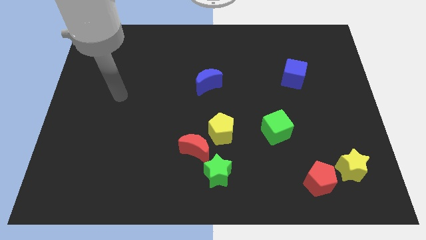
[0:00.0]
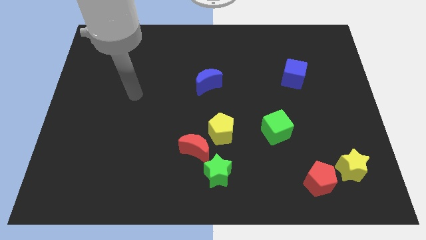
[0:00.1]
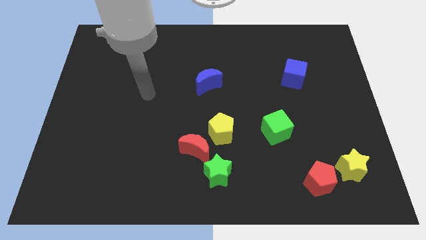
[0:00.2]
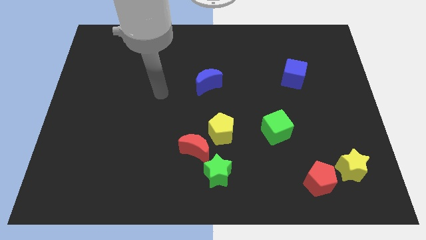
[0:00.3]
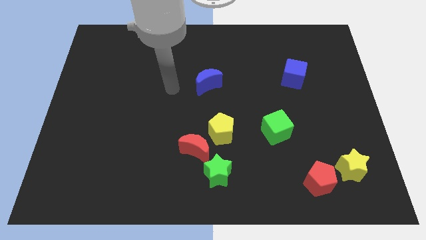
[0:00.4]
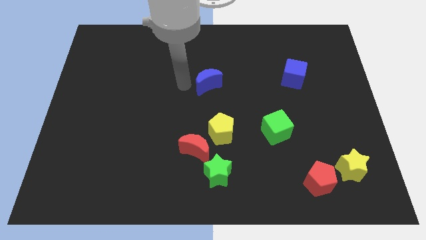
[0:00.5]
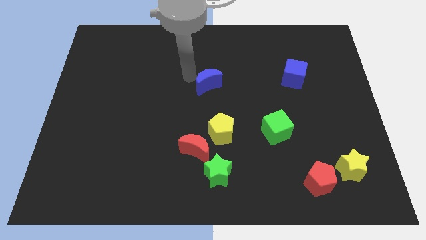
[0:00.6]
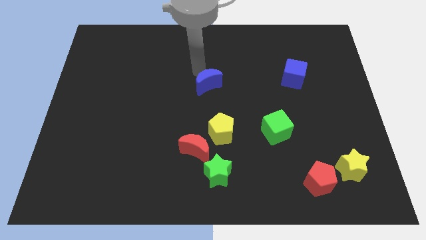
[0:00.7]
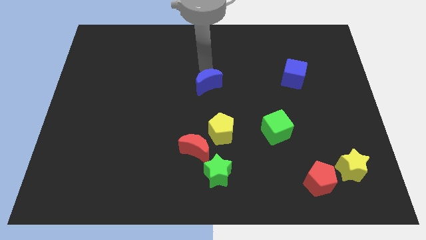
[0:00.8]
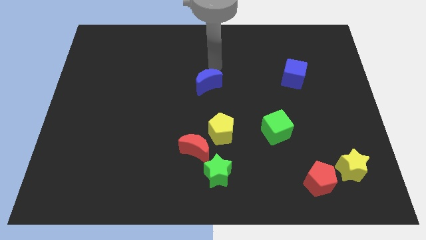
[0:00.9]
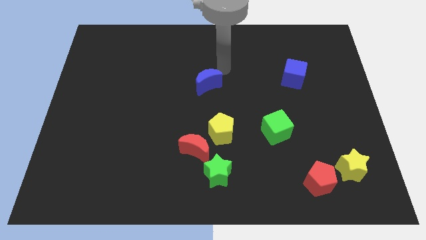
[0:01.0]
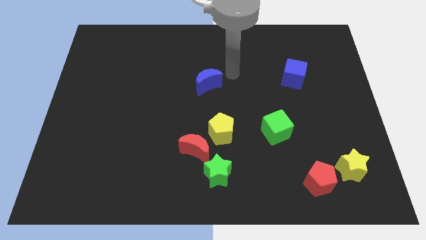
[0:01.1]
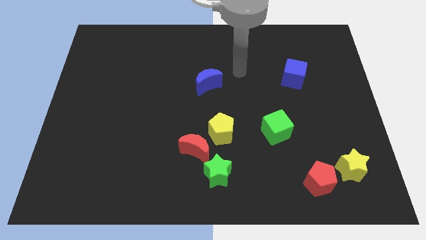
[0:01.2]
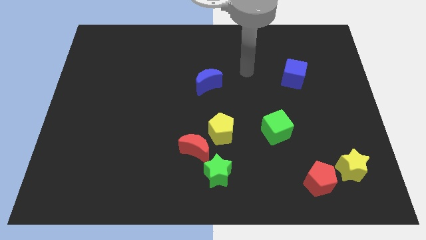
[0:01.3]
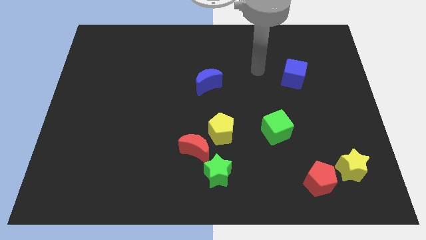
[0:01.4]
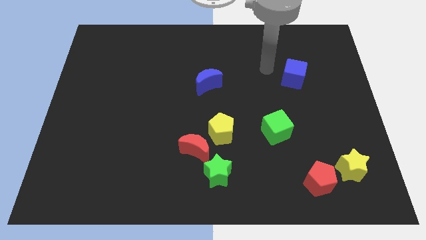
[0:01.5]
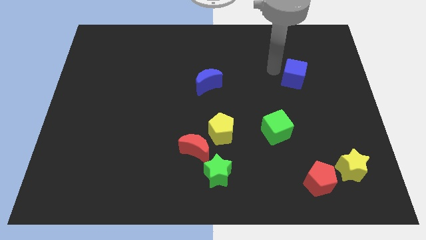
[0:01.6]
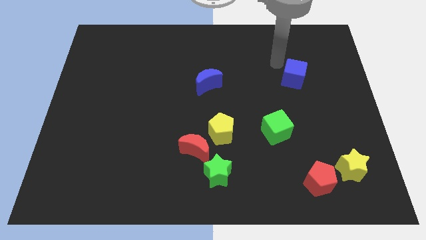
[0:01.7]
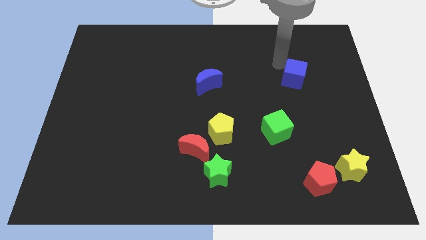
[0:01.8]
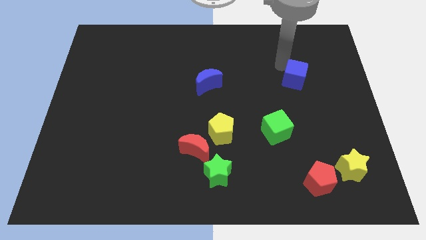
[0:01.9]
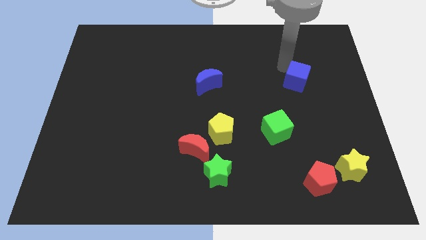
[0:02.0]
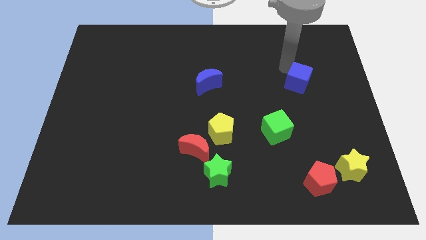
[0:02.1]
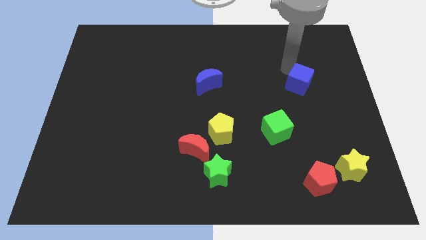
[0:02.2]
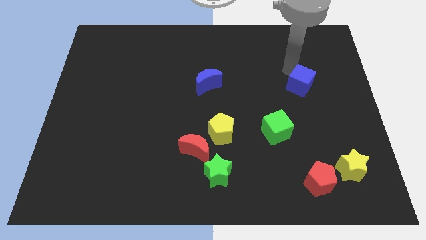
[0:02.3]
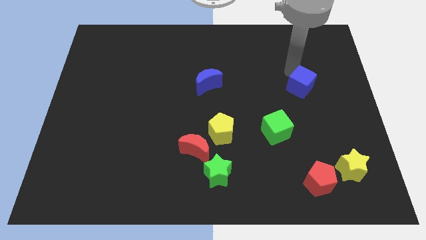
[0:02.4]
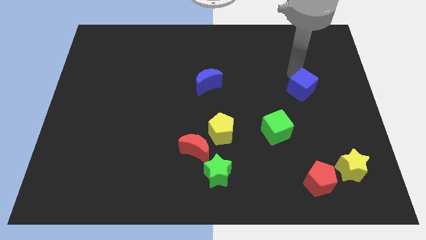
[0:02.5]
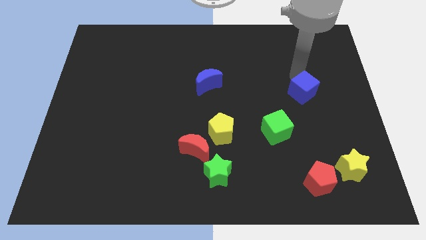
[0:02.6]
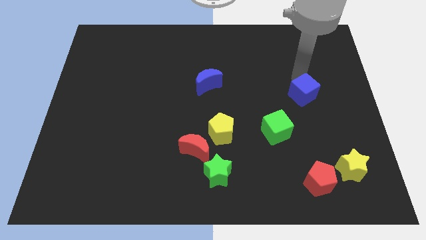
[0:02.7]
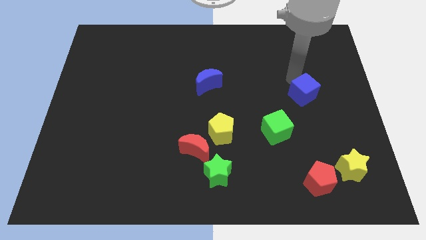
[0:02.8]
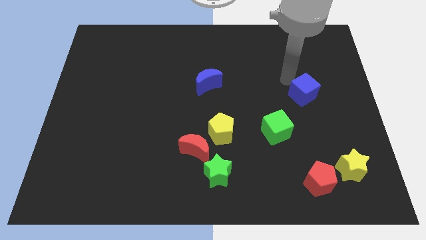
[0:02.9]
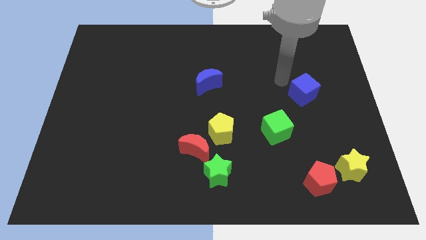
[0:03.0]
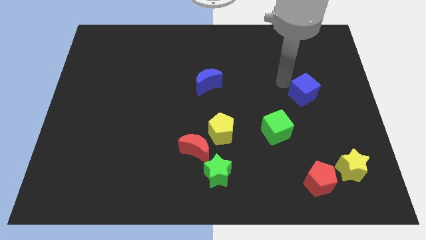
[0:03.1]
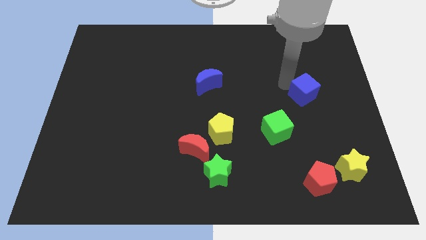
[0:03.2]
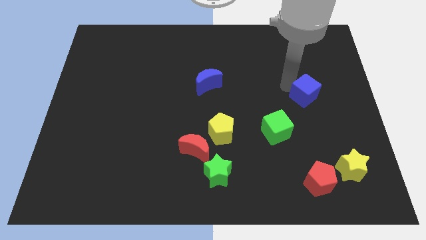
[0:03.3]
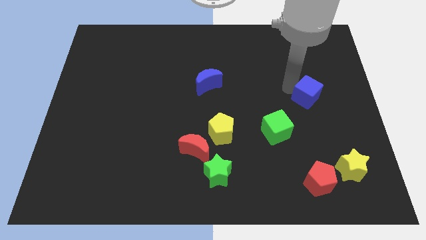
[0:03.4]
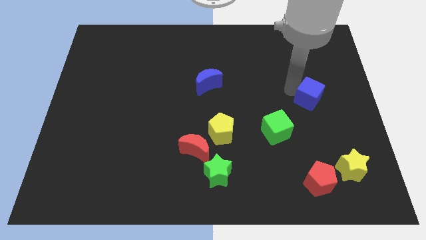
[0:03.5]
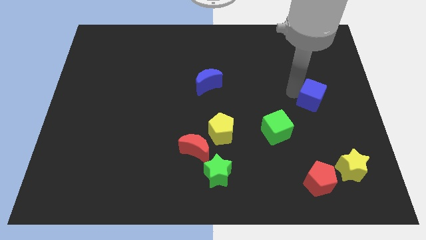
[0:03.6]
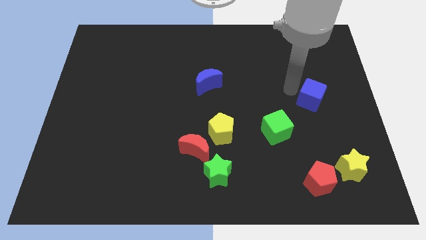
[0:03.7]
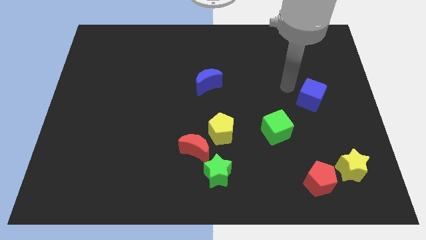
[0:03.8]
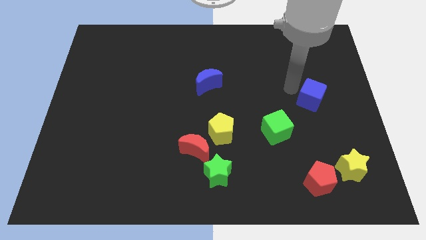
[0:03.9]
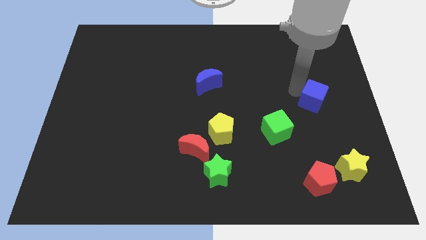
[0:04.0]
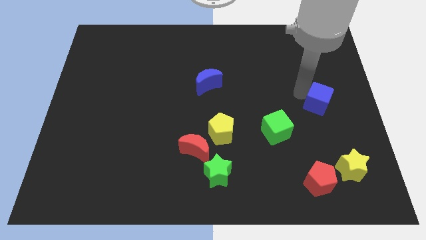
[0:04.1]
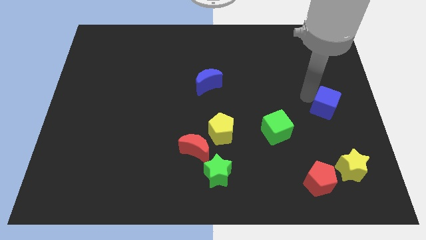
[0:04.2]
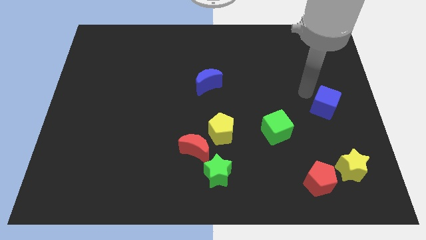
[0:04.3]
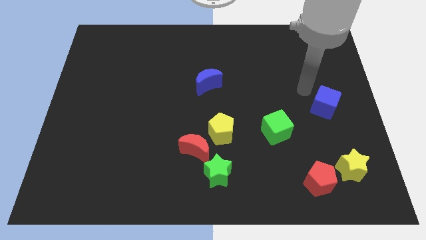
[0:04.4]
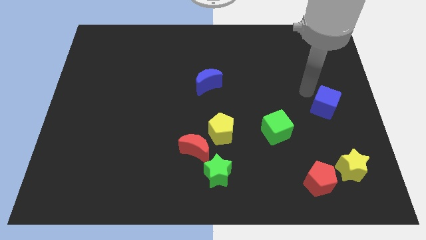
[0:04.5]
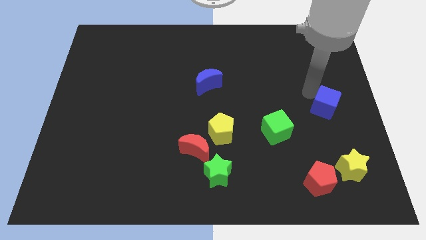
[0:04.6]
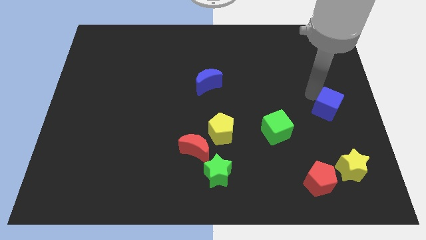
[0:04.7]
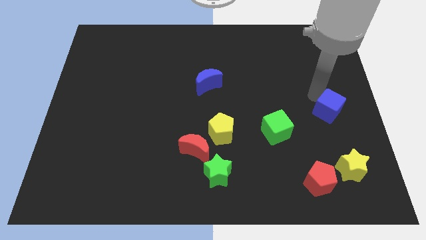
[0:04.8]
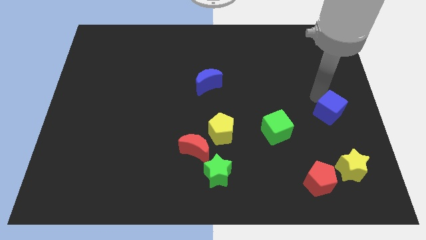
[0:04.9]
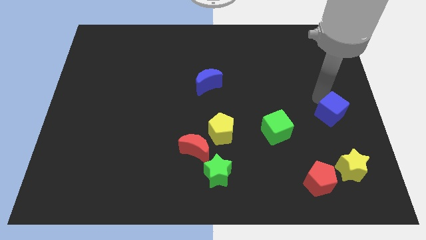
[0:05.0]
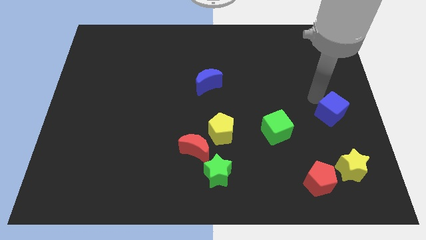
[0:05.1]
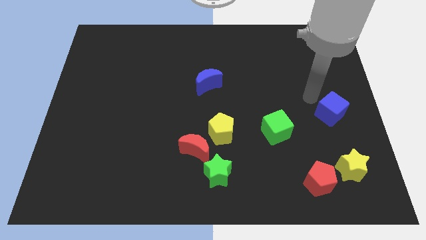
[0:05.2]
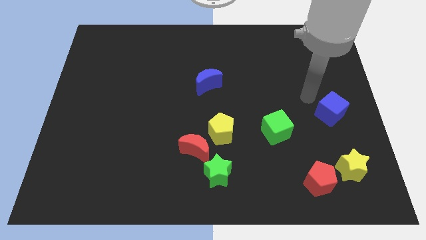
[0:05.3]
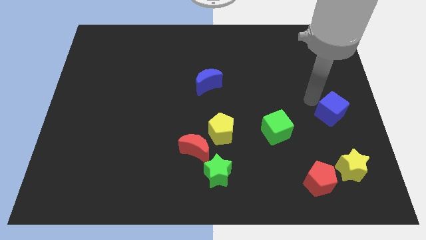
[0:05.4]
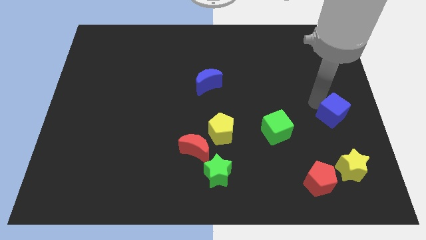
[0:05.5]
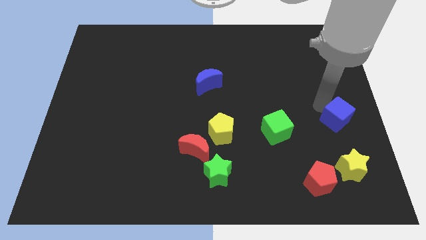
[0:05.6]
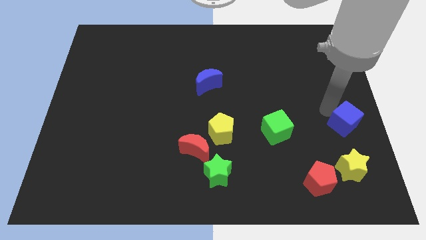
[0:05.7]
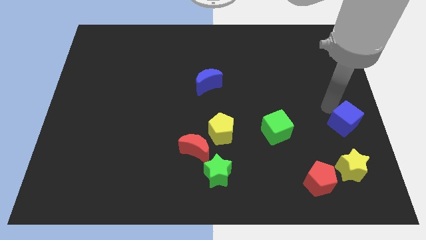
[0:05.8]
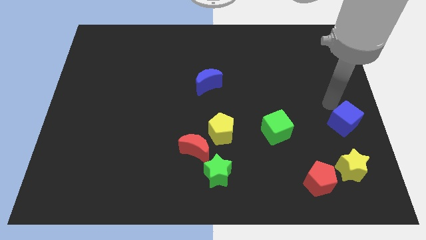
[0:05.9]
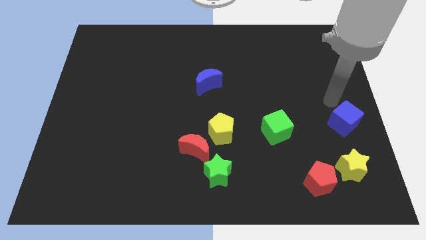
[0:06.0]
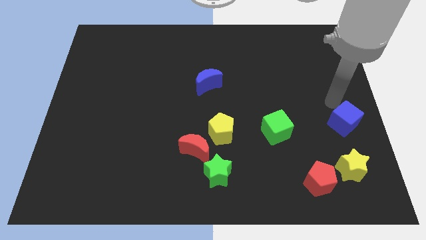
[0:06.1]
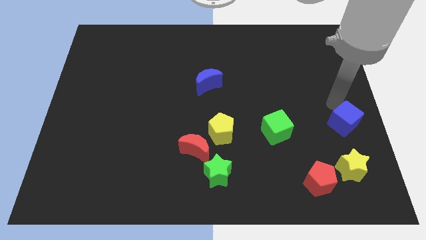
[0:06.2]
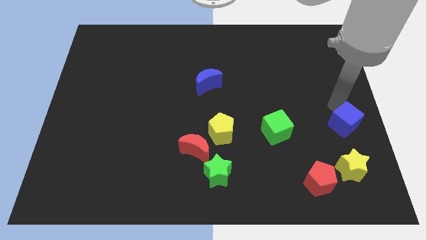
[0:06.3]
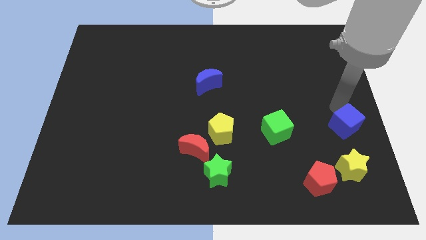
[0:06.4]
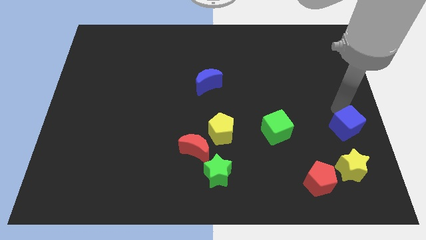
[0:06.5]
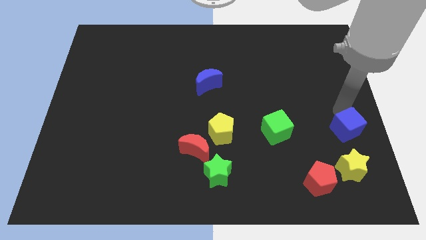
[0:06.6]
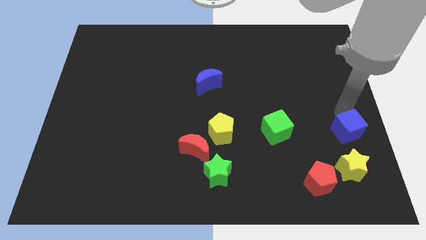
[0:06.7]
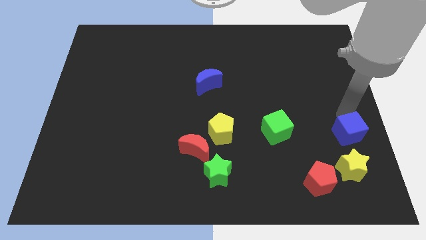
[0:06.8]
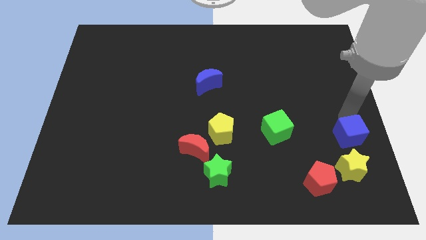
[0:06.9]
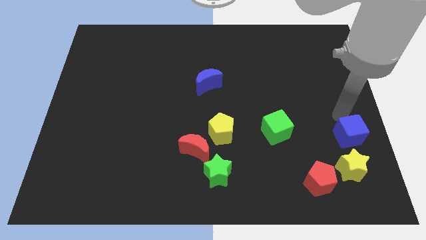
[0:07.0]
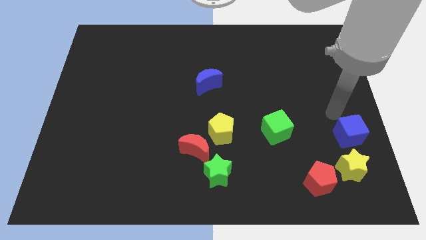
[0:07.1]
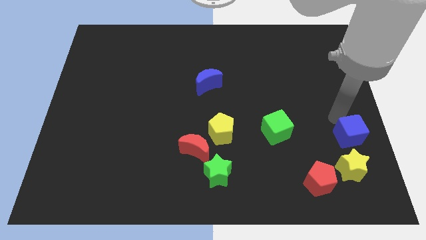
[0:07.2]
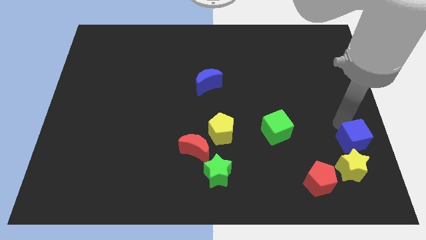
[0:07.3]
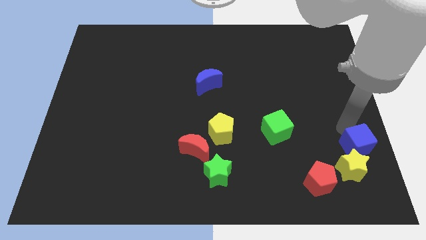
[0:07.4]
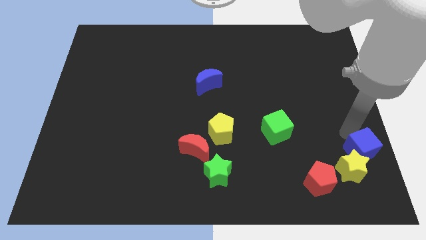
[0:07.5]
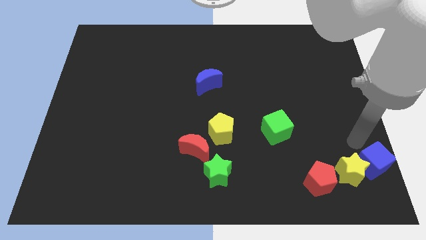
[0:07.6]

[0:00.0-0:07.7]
push the blue cube to the bottom right of the board
